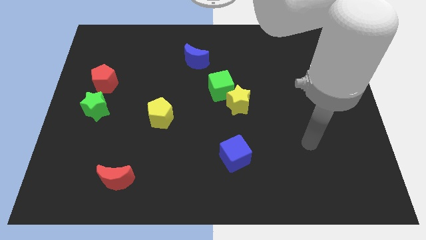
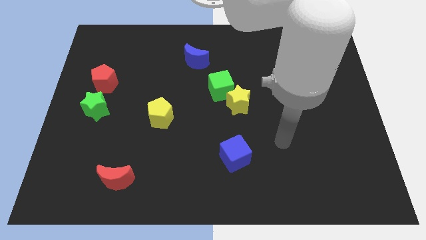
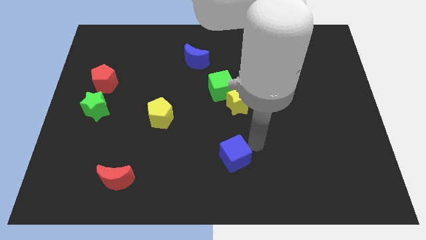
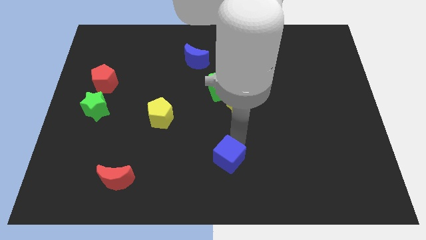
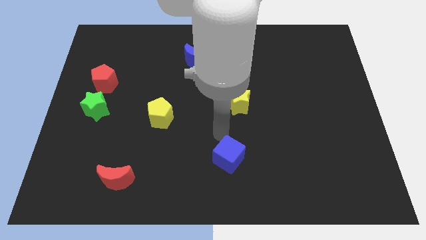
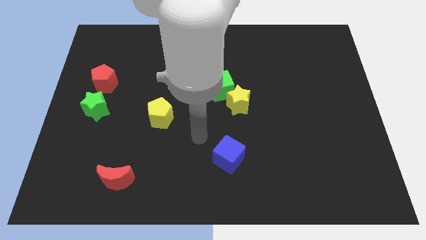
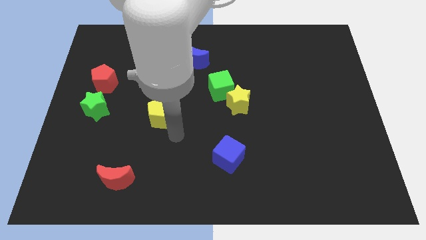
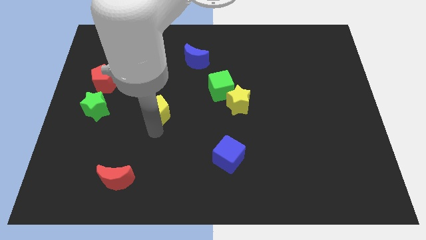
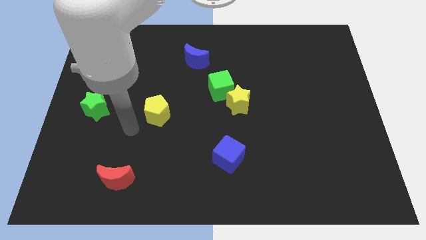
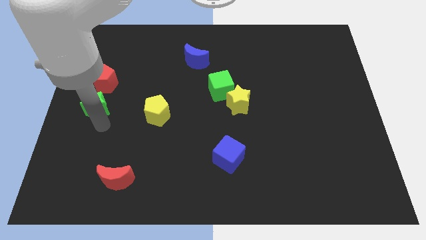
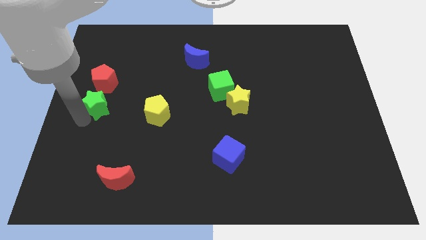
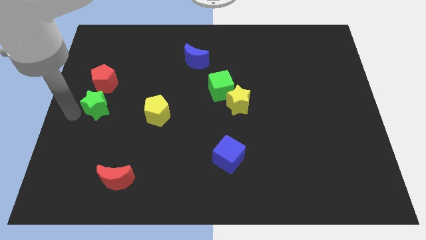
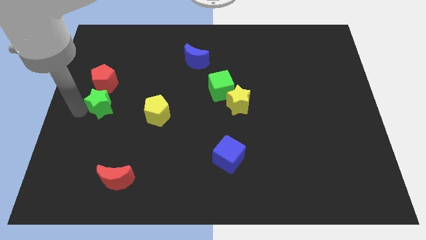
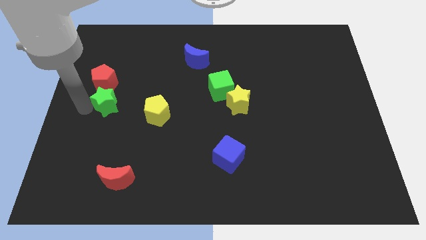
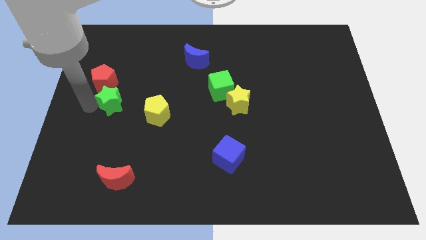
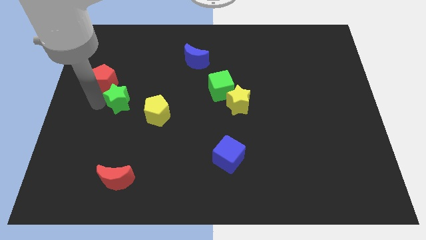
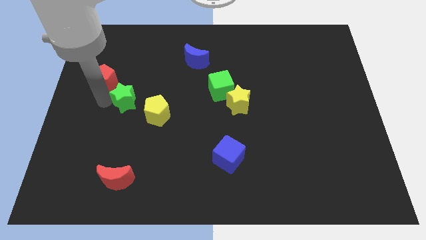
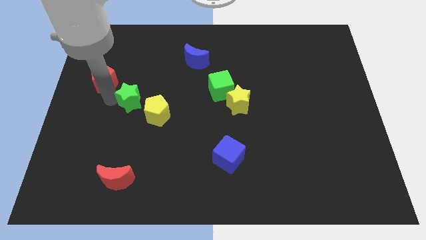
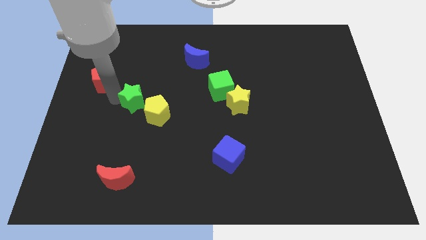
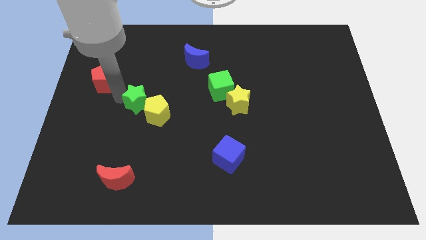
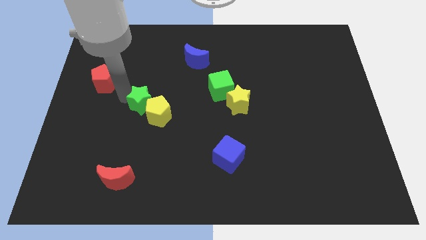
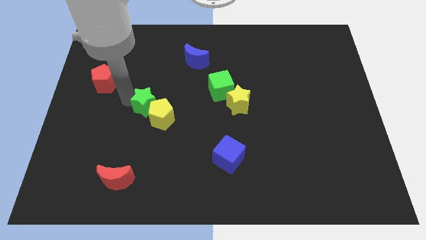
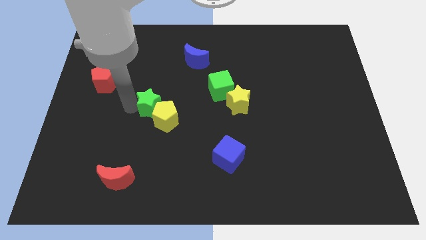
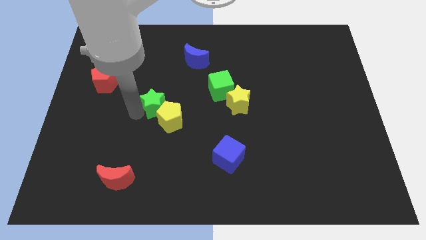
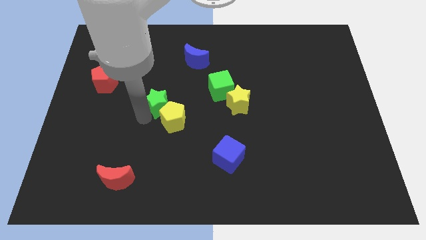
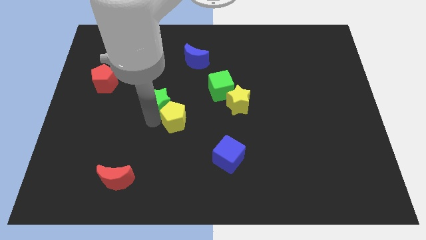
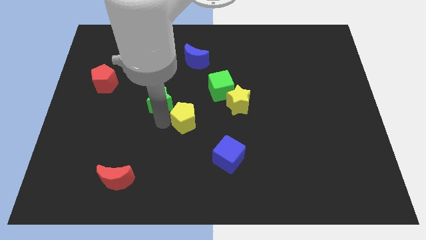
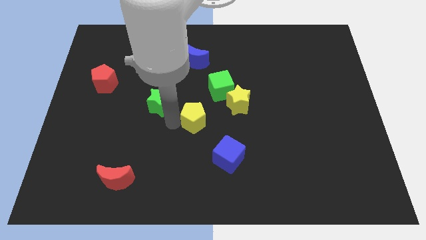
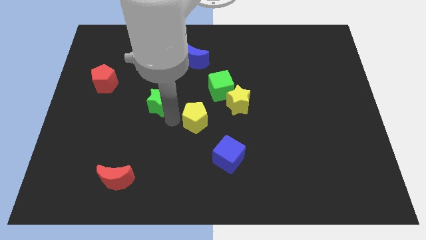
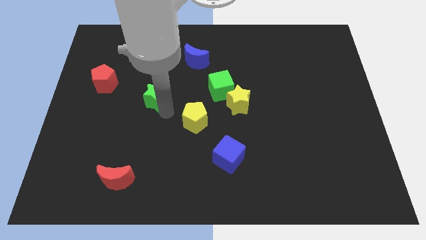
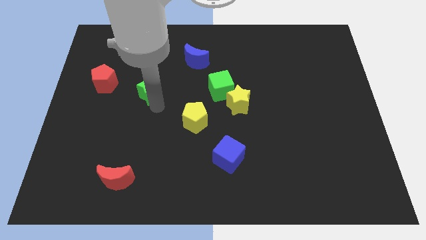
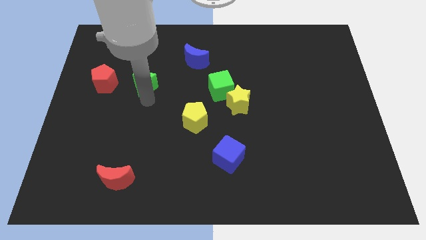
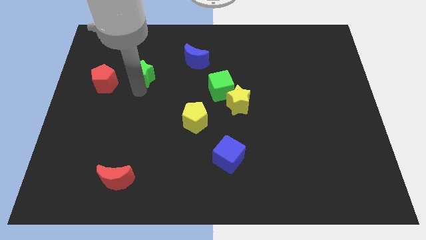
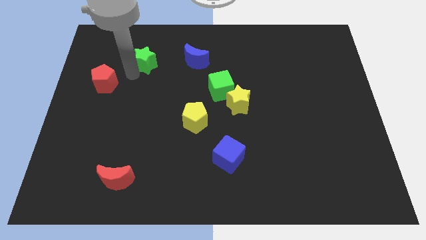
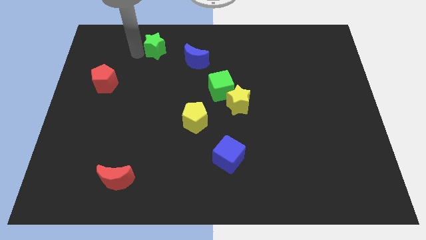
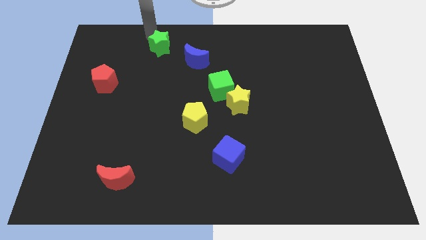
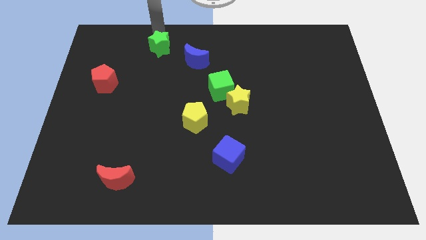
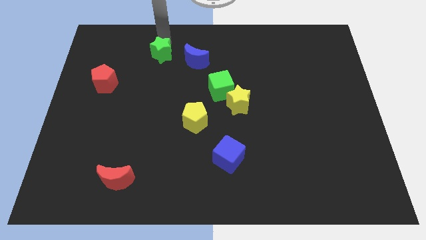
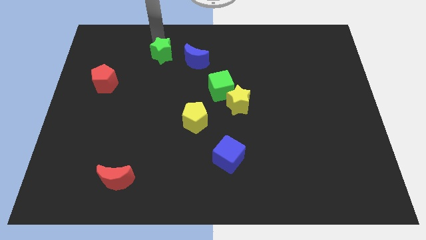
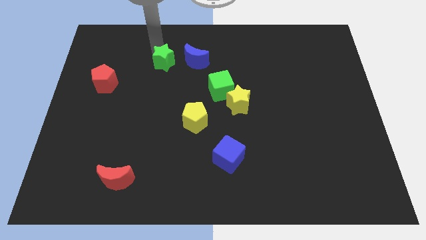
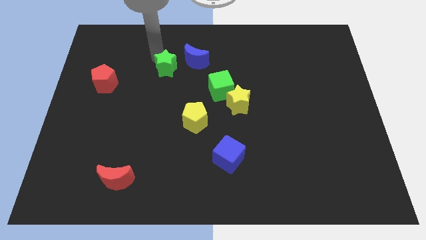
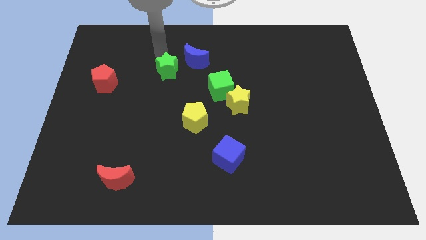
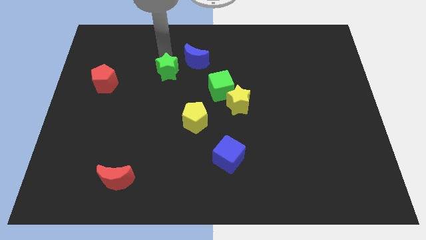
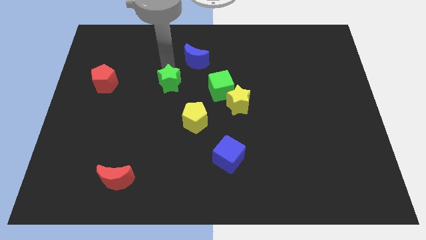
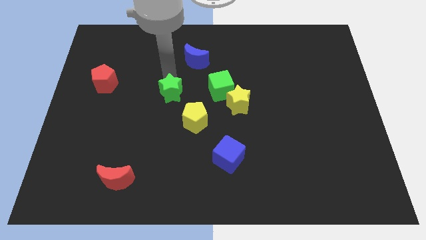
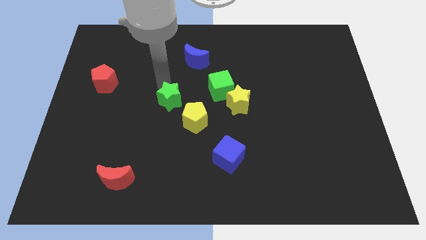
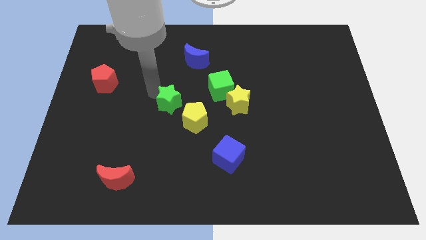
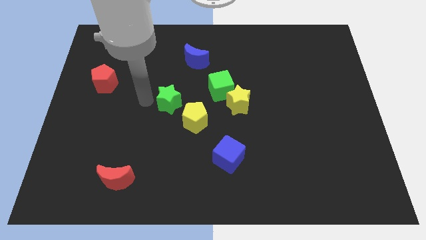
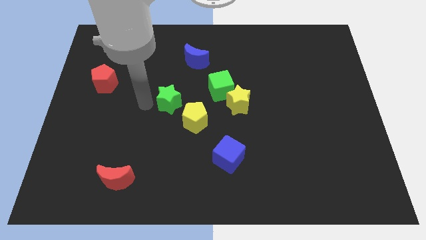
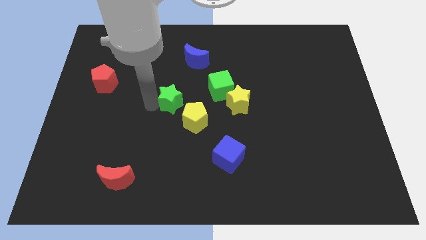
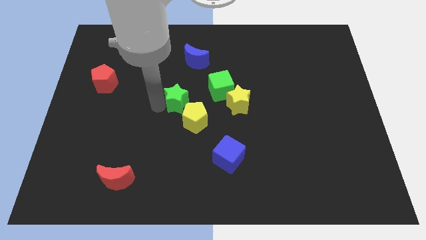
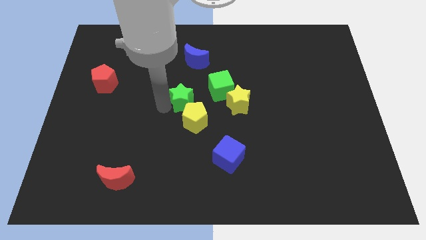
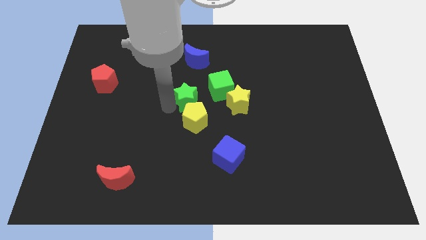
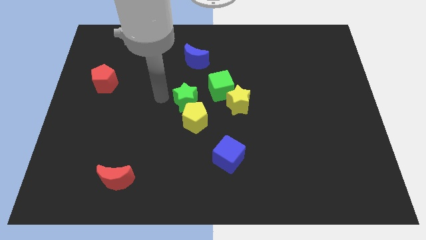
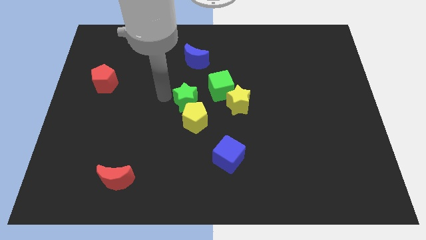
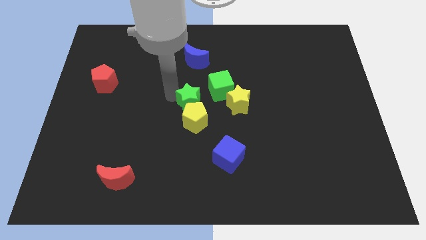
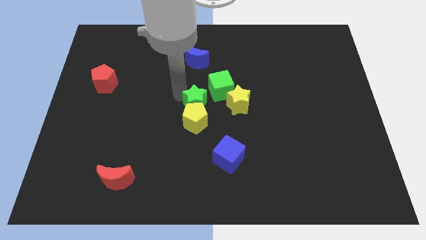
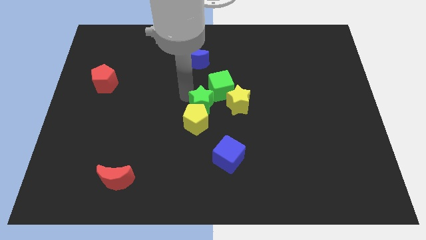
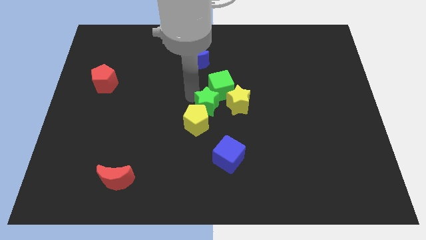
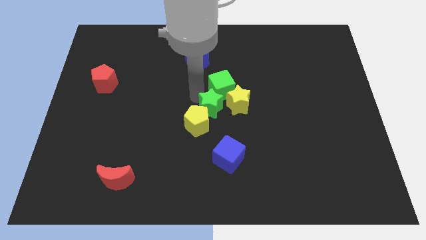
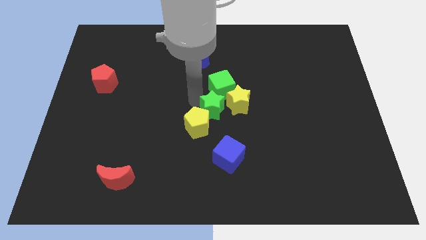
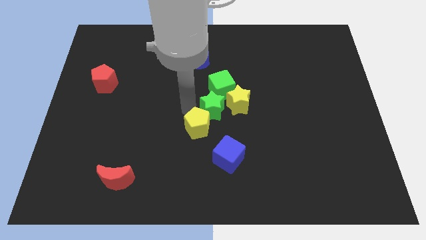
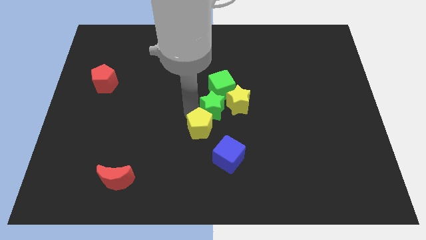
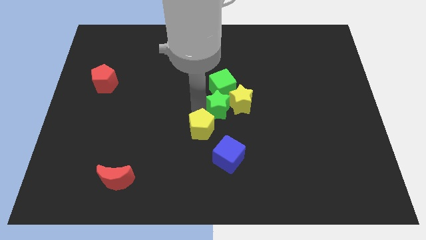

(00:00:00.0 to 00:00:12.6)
move the green star next to the yellow star
